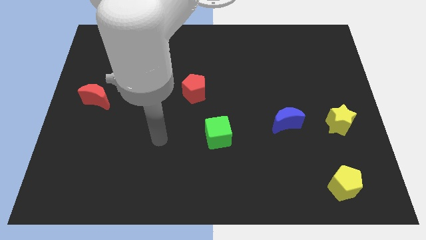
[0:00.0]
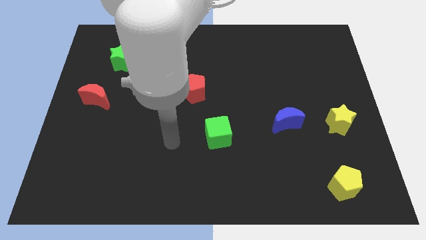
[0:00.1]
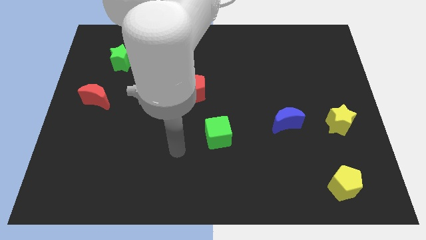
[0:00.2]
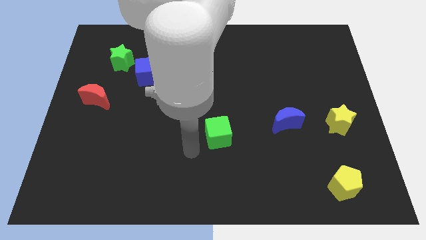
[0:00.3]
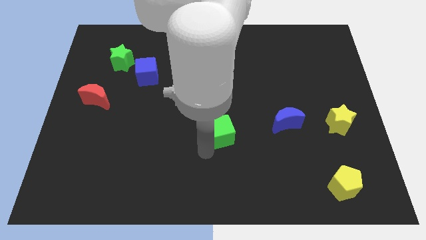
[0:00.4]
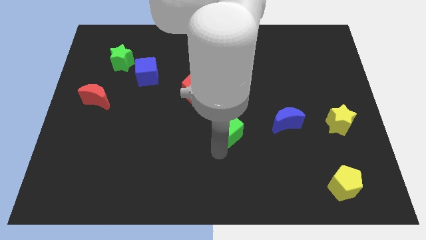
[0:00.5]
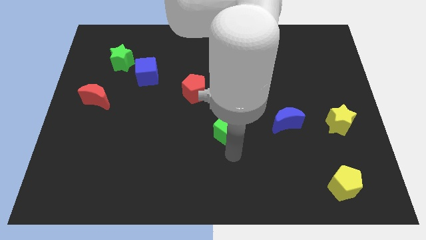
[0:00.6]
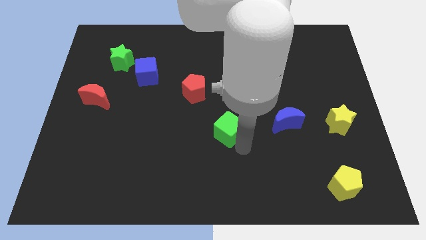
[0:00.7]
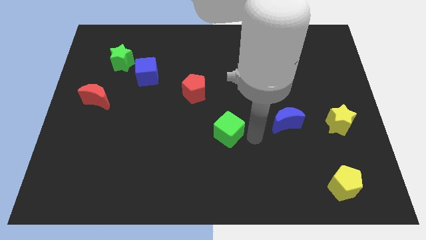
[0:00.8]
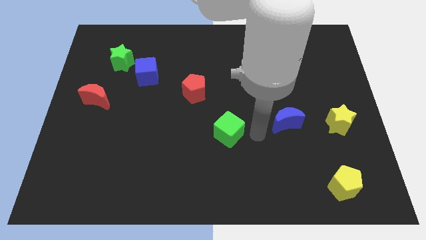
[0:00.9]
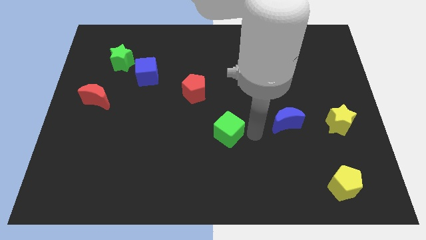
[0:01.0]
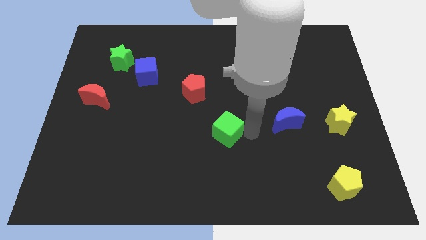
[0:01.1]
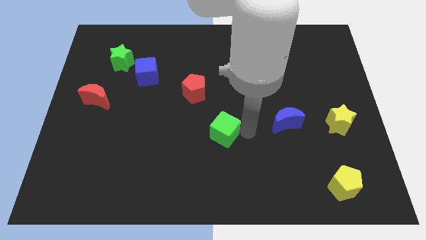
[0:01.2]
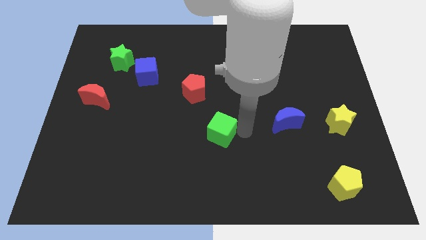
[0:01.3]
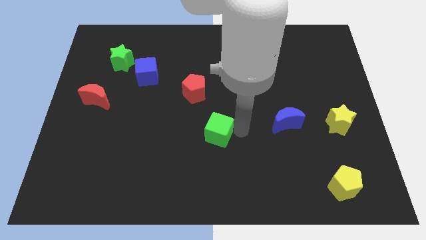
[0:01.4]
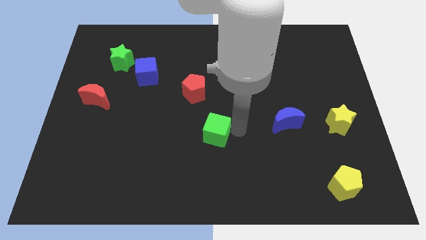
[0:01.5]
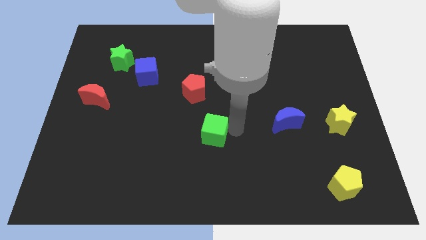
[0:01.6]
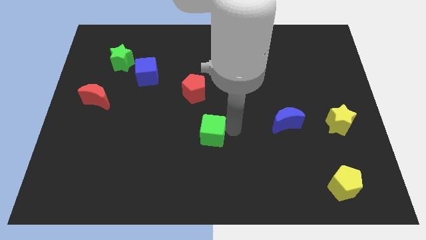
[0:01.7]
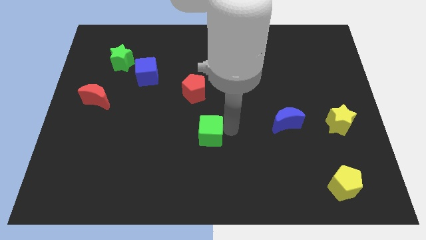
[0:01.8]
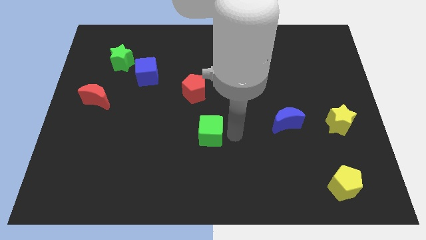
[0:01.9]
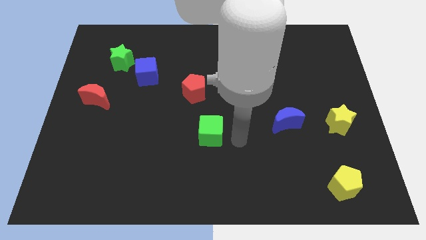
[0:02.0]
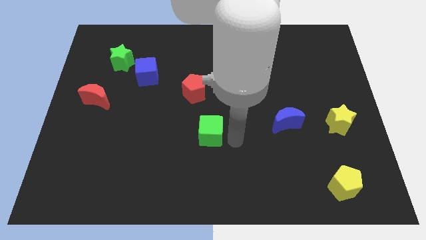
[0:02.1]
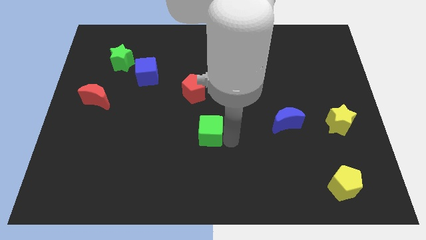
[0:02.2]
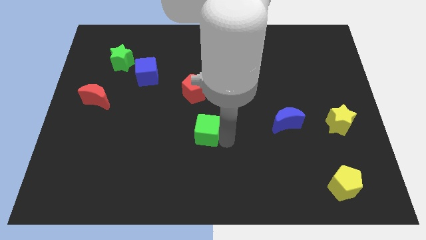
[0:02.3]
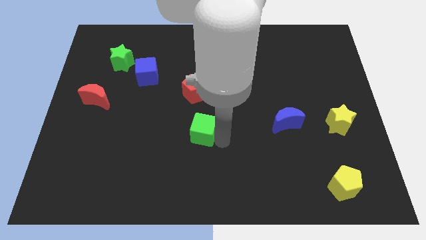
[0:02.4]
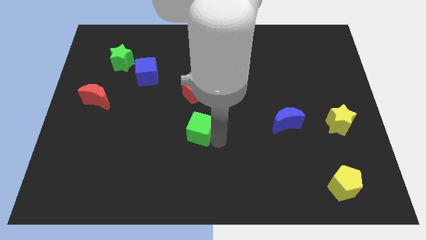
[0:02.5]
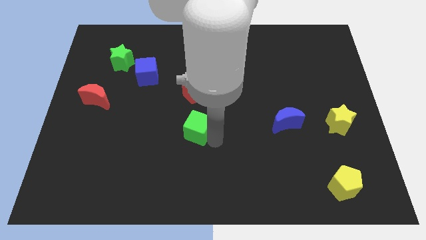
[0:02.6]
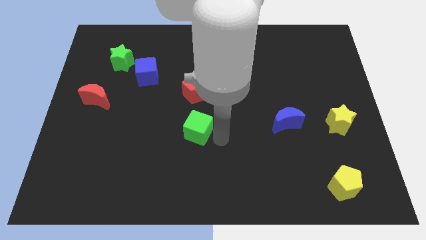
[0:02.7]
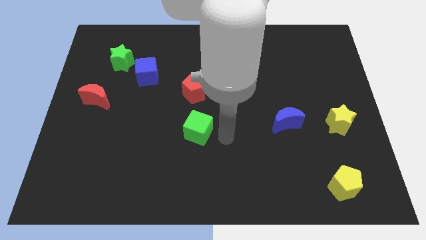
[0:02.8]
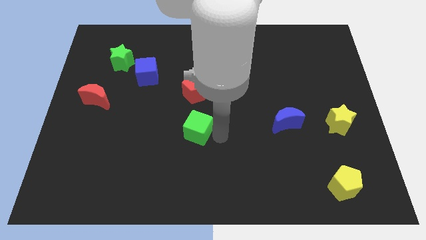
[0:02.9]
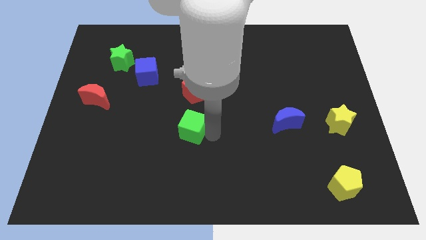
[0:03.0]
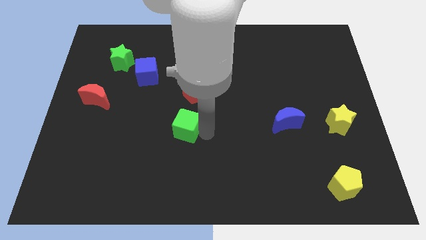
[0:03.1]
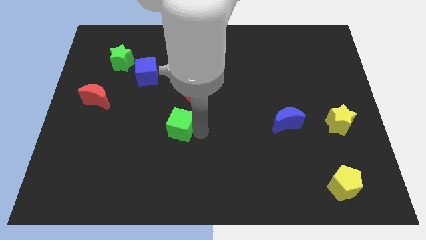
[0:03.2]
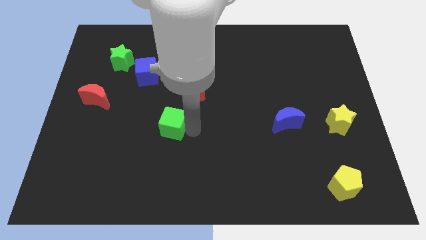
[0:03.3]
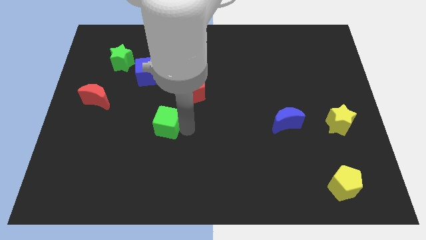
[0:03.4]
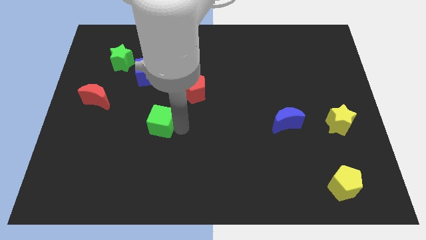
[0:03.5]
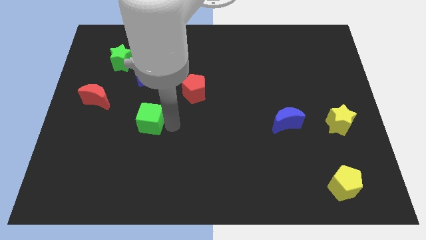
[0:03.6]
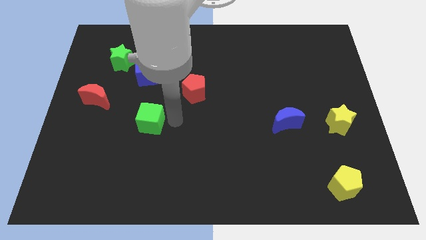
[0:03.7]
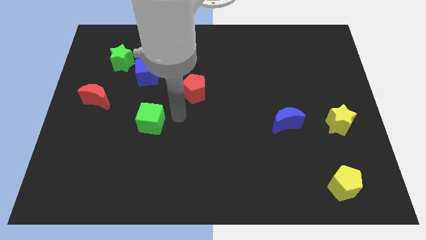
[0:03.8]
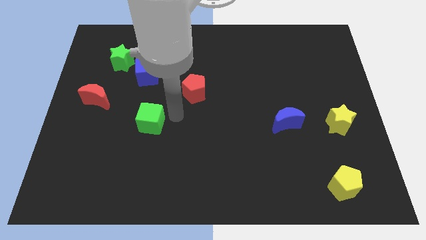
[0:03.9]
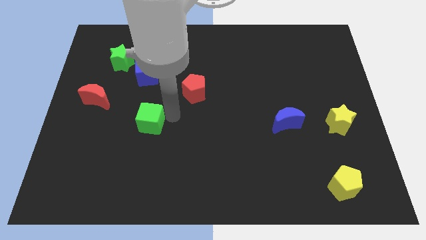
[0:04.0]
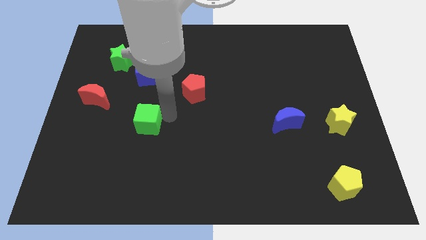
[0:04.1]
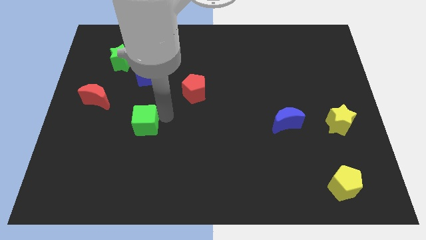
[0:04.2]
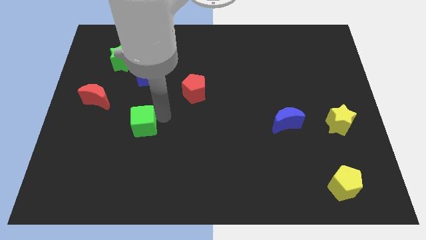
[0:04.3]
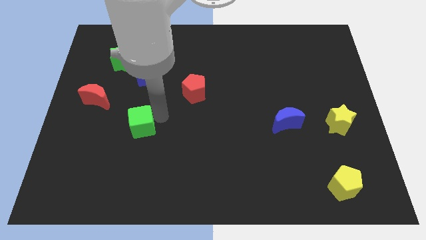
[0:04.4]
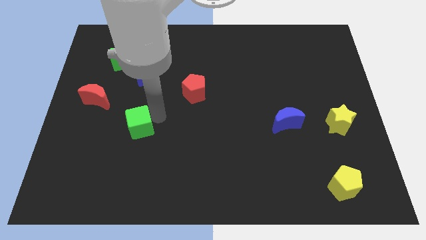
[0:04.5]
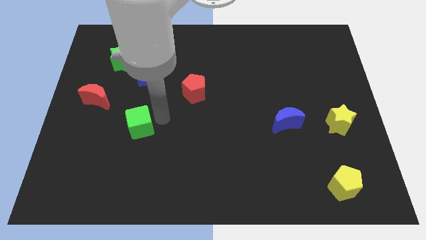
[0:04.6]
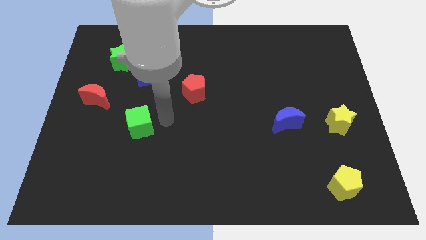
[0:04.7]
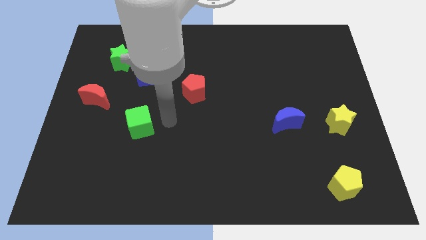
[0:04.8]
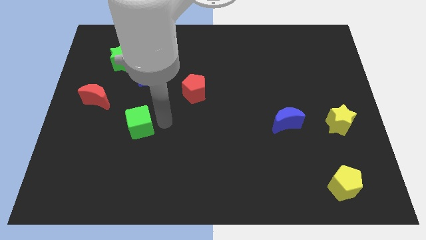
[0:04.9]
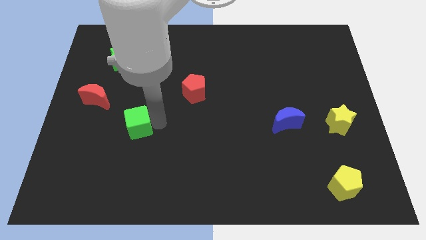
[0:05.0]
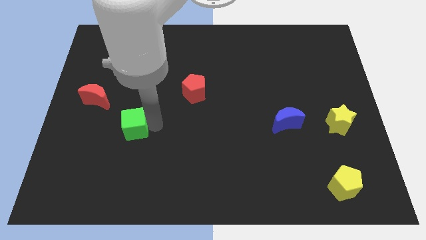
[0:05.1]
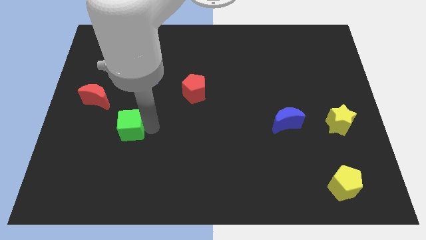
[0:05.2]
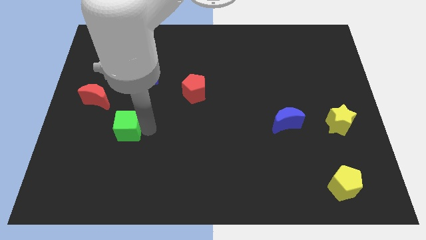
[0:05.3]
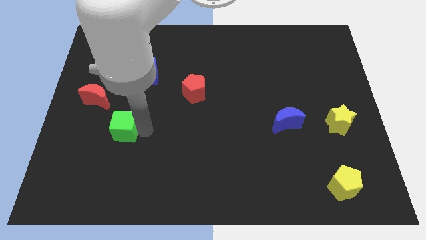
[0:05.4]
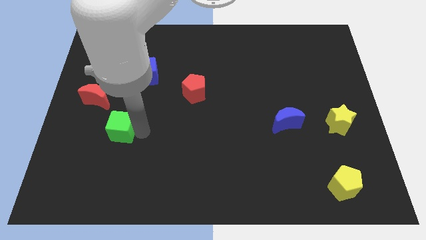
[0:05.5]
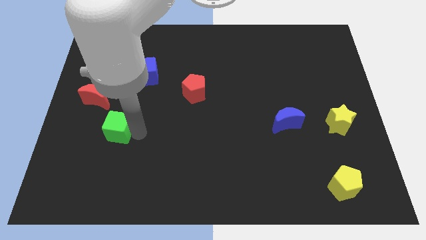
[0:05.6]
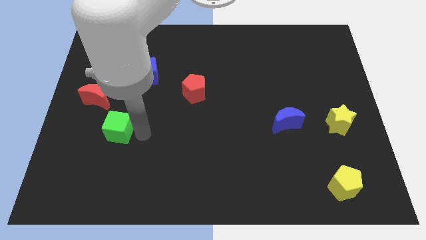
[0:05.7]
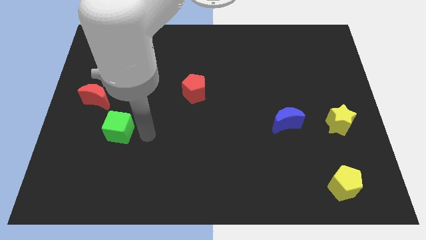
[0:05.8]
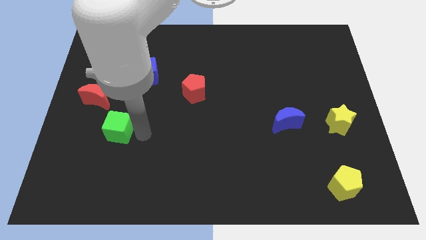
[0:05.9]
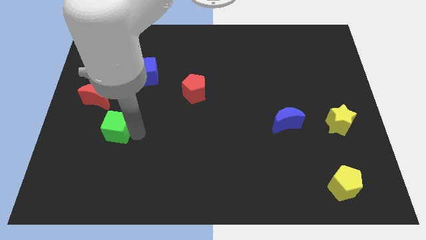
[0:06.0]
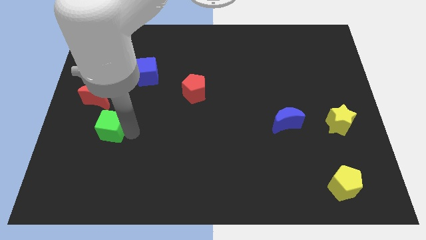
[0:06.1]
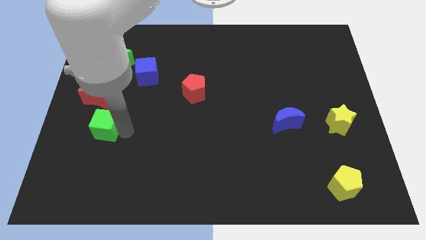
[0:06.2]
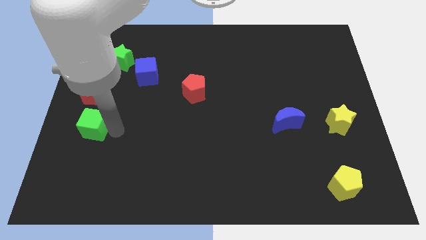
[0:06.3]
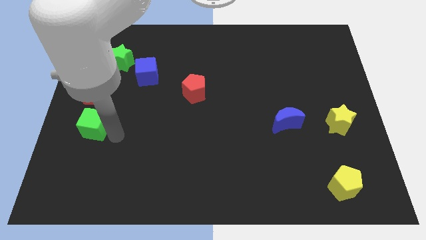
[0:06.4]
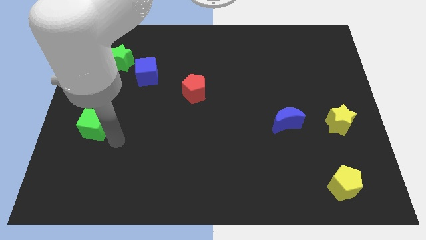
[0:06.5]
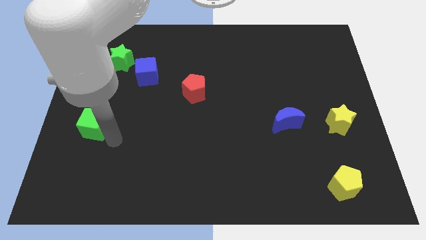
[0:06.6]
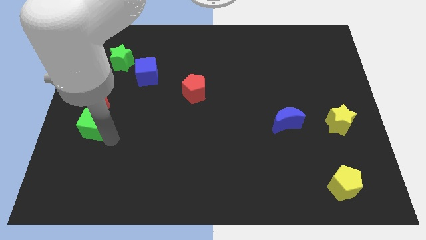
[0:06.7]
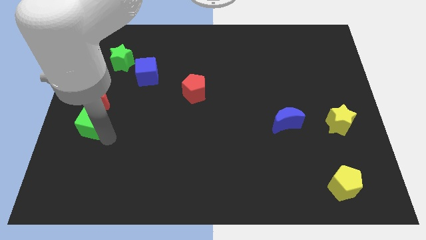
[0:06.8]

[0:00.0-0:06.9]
slide the green cube to the left side of the board
